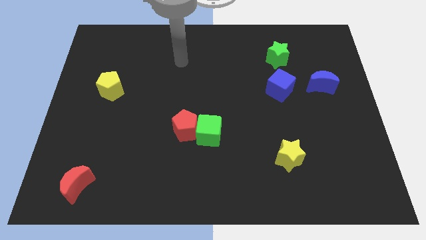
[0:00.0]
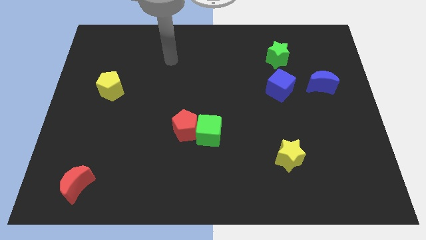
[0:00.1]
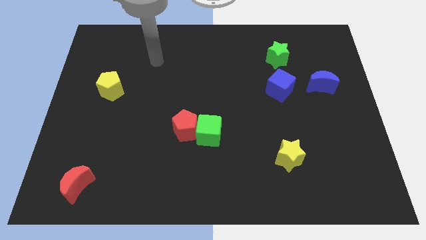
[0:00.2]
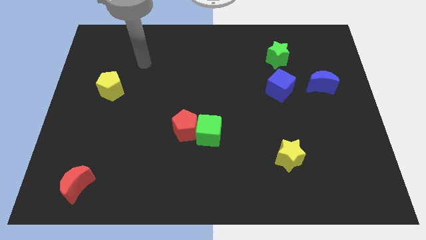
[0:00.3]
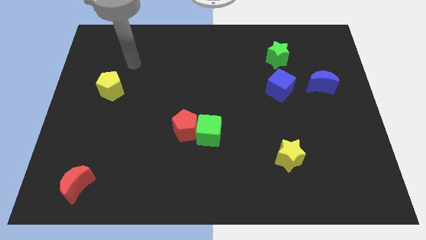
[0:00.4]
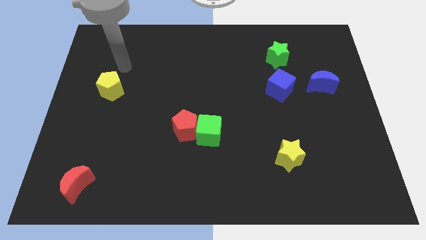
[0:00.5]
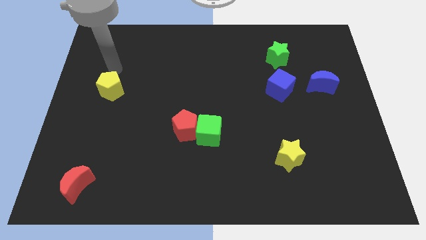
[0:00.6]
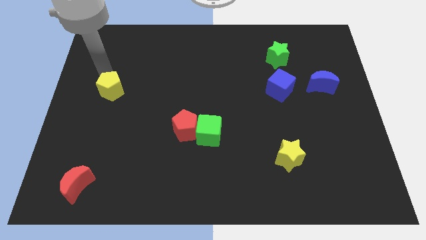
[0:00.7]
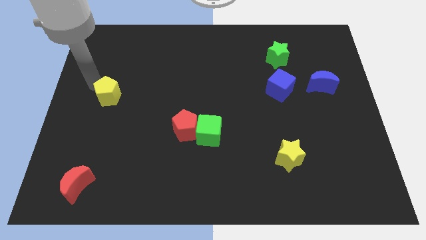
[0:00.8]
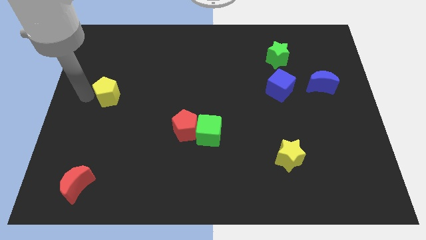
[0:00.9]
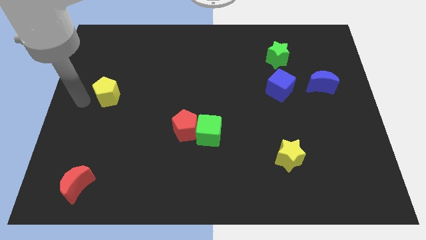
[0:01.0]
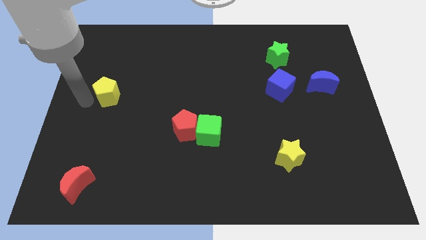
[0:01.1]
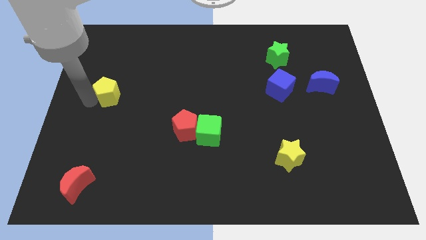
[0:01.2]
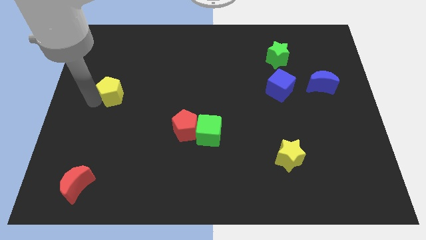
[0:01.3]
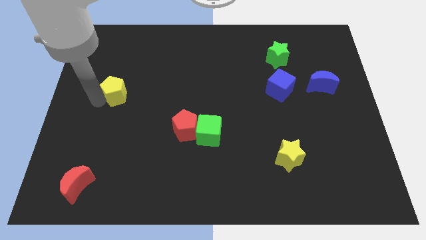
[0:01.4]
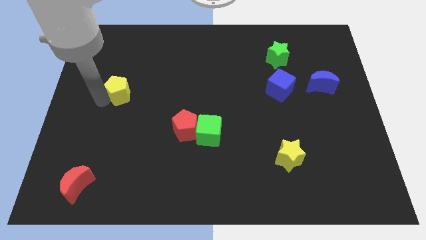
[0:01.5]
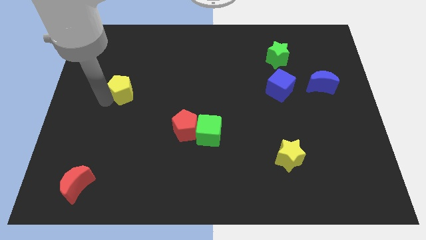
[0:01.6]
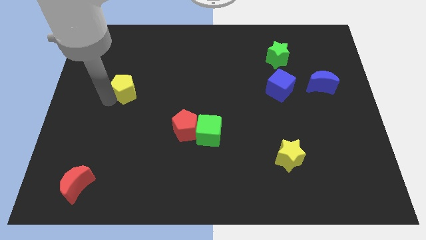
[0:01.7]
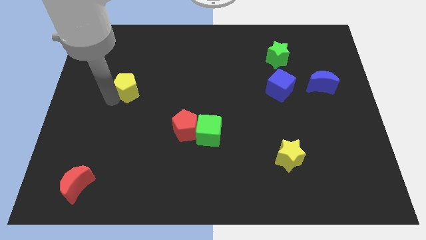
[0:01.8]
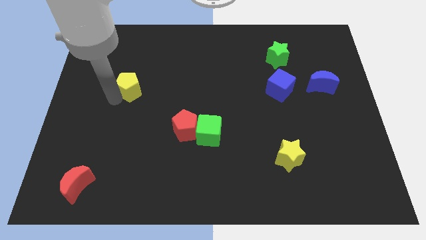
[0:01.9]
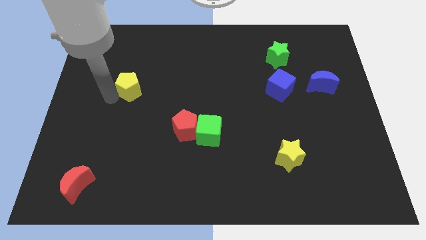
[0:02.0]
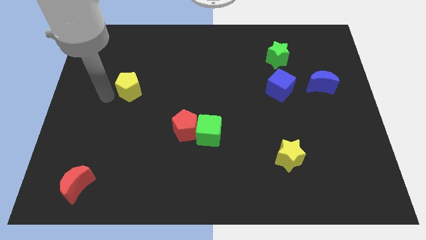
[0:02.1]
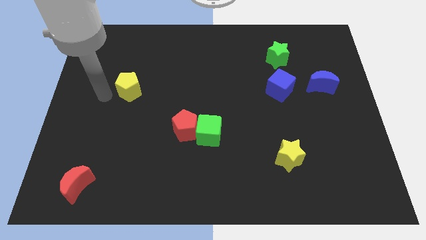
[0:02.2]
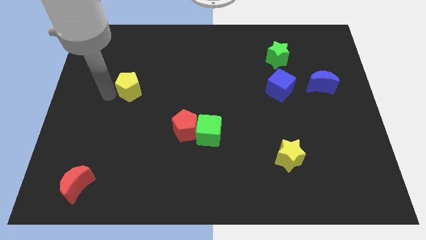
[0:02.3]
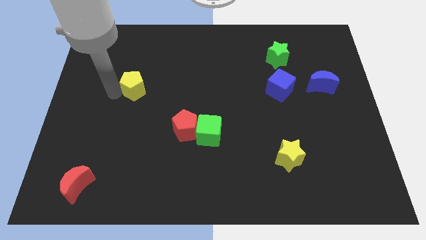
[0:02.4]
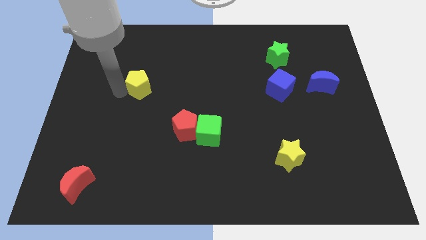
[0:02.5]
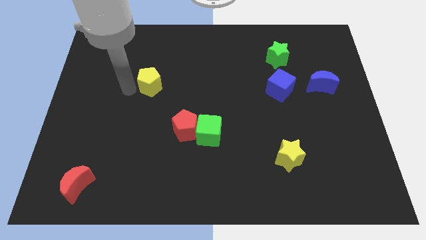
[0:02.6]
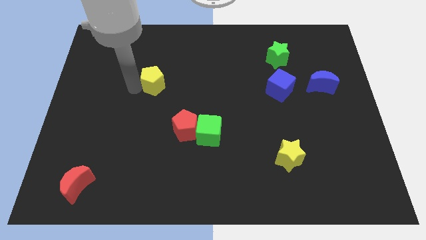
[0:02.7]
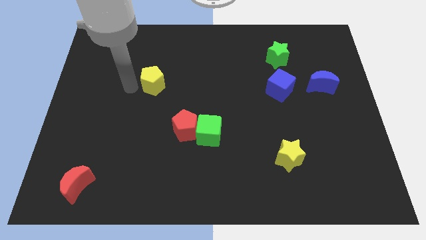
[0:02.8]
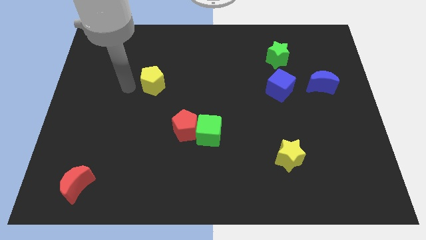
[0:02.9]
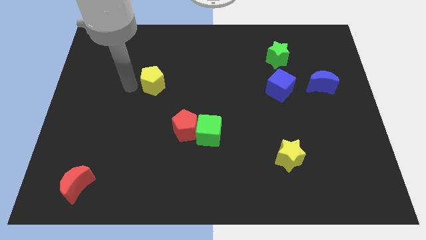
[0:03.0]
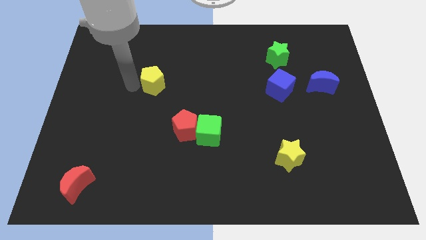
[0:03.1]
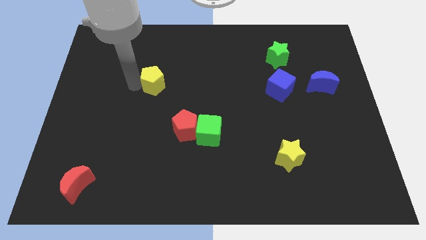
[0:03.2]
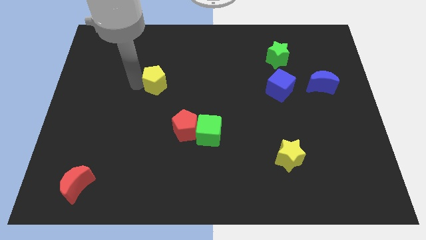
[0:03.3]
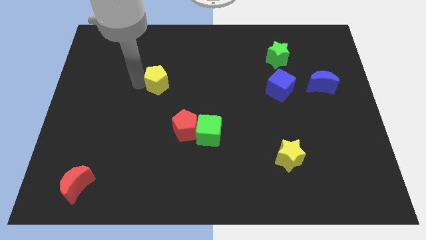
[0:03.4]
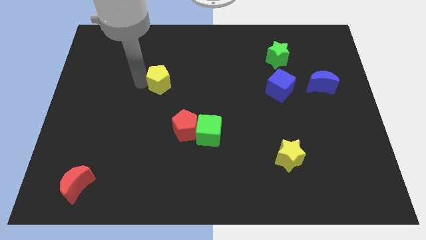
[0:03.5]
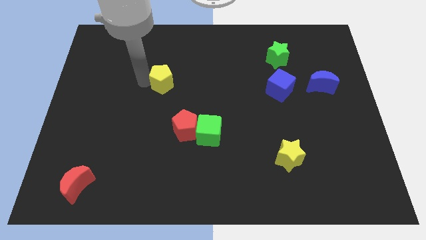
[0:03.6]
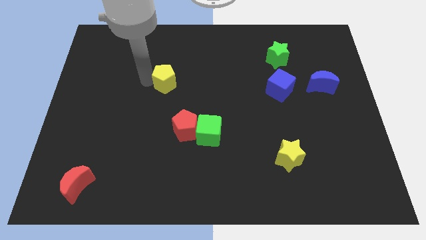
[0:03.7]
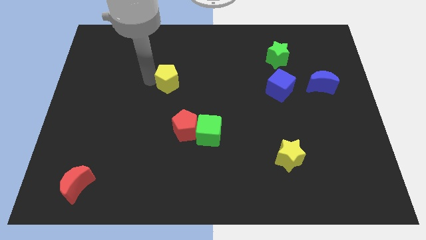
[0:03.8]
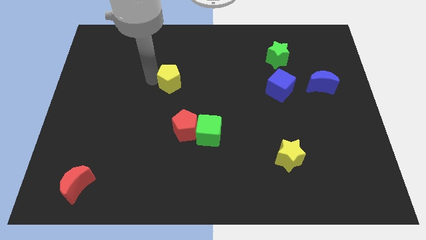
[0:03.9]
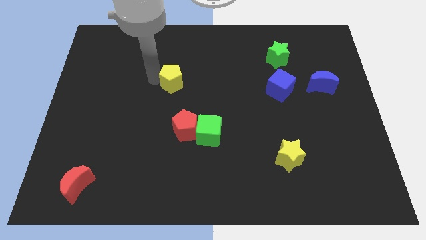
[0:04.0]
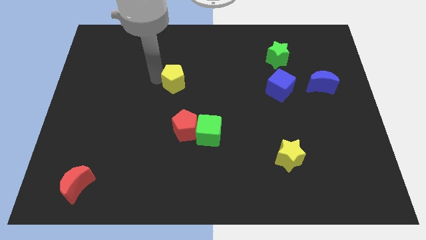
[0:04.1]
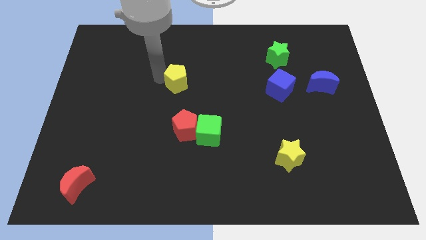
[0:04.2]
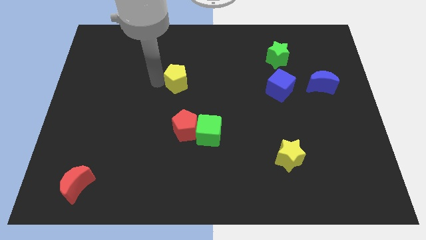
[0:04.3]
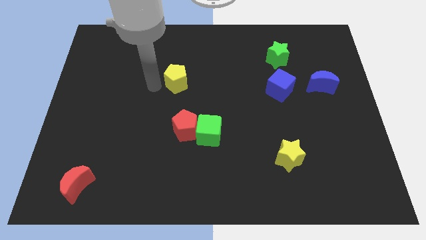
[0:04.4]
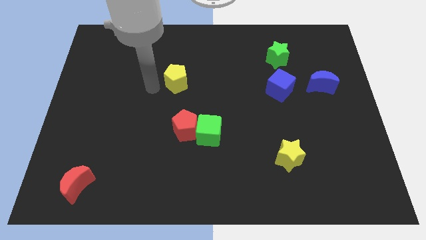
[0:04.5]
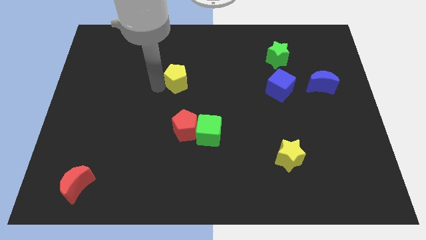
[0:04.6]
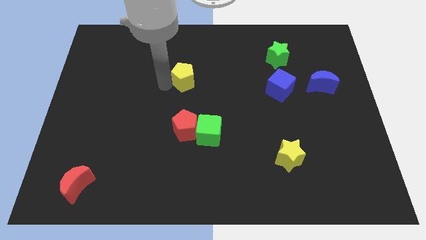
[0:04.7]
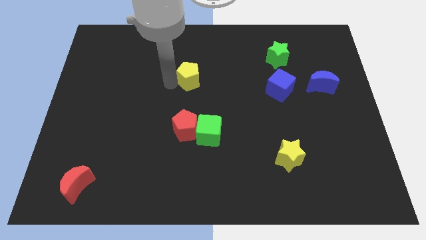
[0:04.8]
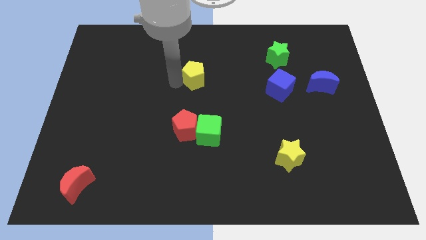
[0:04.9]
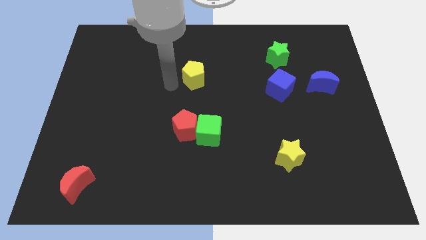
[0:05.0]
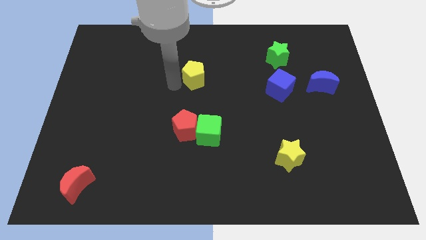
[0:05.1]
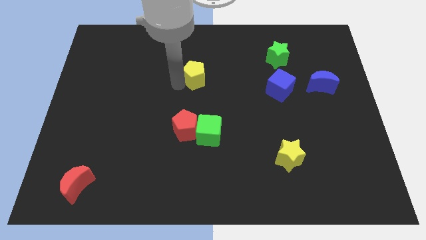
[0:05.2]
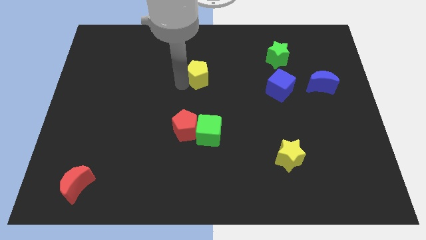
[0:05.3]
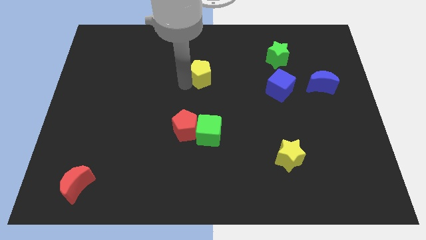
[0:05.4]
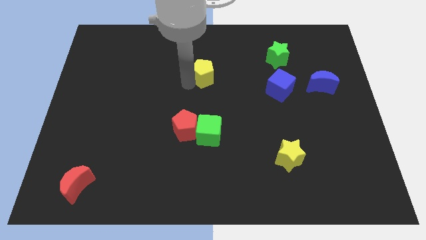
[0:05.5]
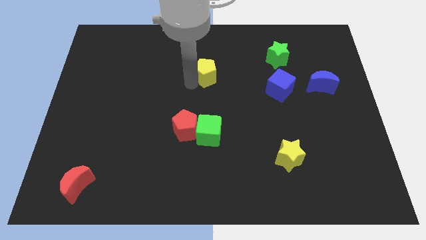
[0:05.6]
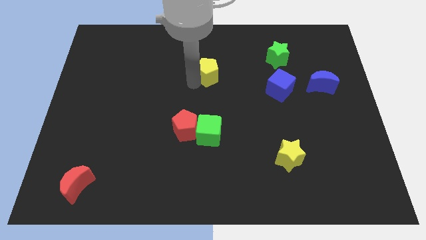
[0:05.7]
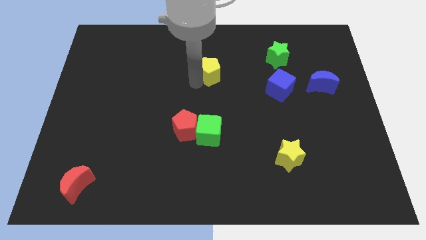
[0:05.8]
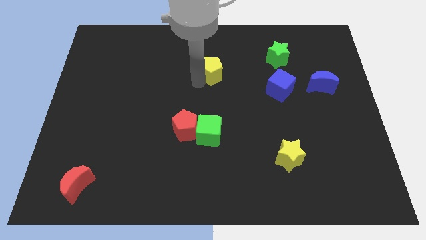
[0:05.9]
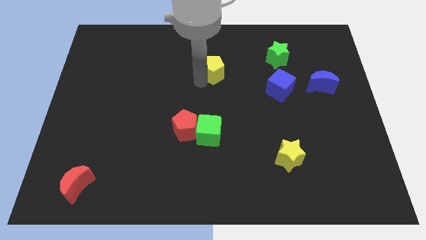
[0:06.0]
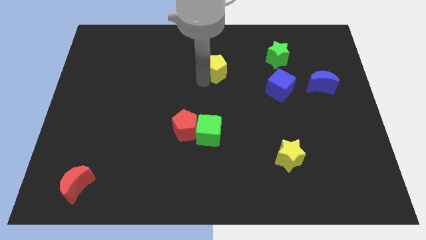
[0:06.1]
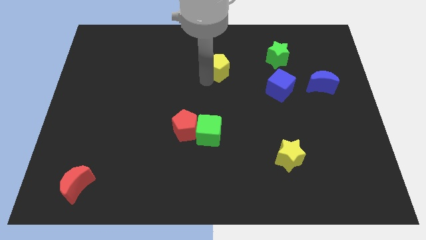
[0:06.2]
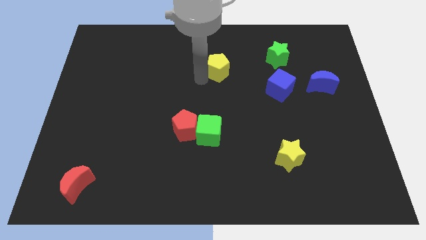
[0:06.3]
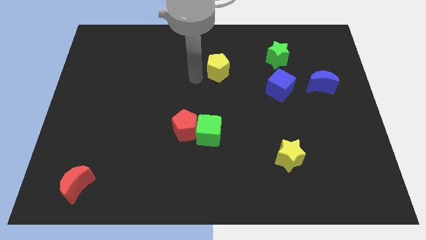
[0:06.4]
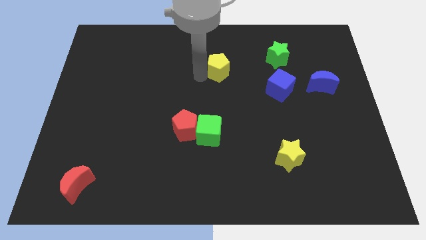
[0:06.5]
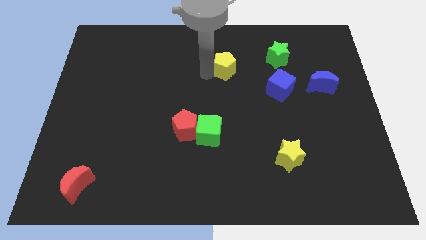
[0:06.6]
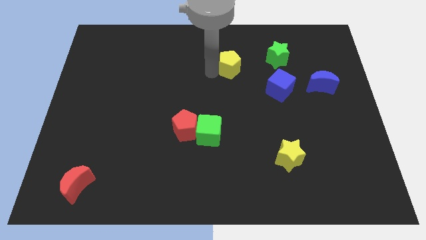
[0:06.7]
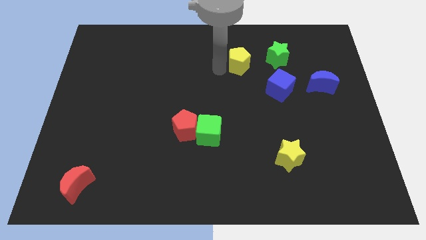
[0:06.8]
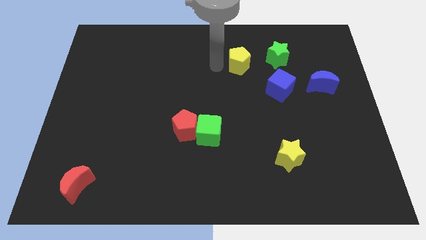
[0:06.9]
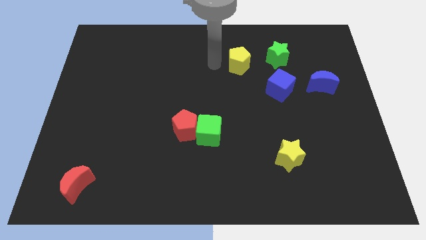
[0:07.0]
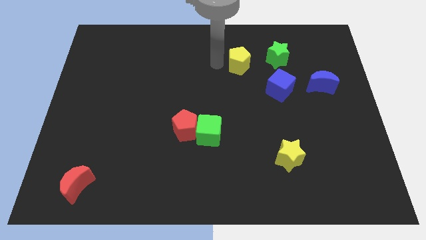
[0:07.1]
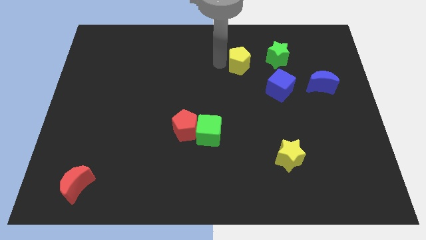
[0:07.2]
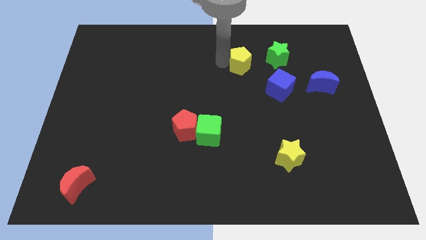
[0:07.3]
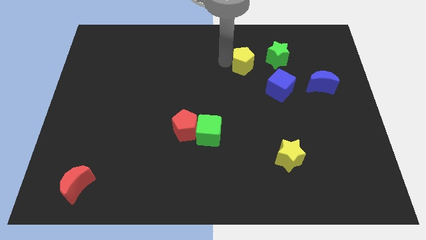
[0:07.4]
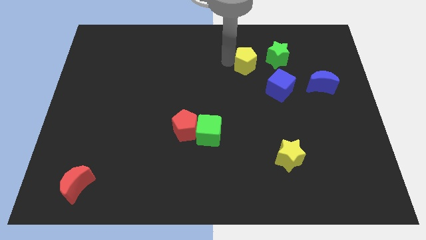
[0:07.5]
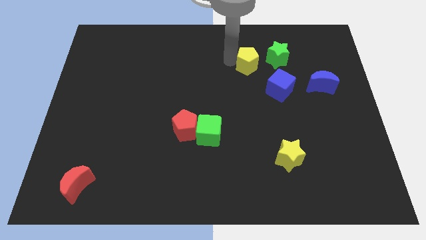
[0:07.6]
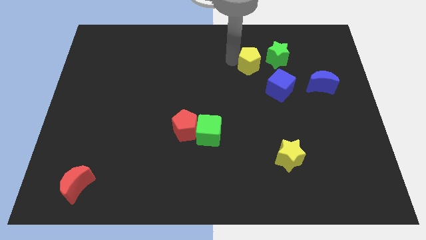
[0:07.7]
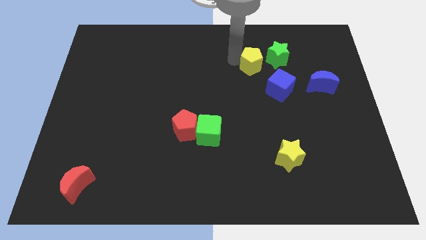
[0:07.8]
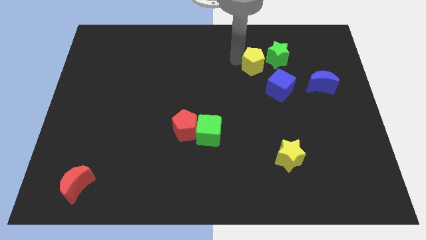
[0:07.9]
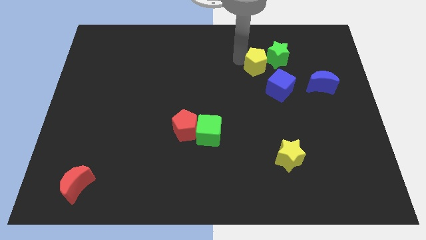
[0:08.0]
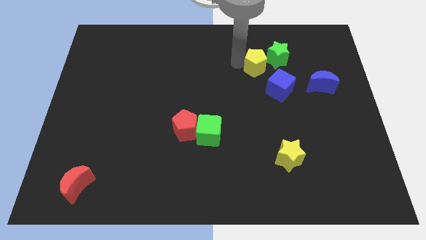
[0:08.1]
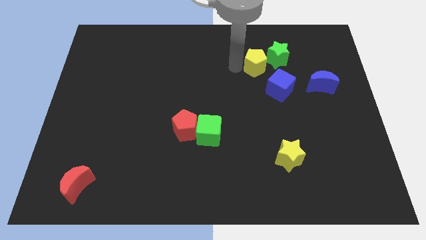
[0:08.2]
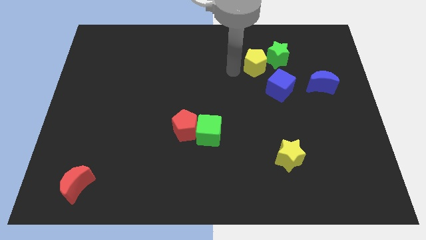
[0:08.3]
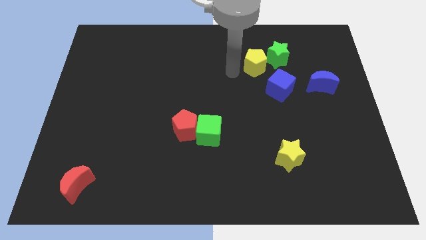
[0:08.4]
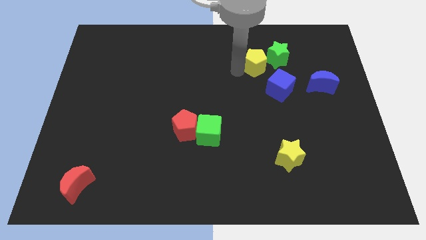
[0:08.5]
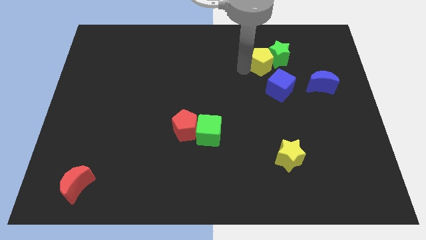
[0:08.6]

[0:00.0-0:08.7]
put the yellow pentagon next to the green star
